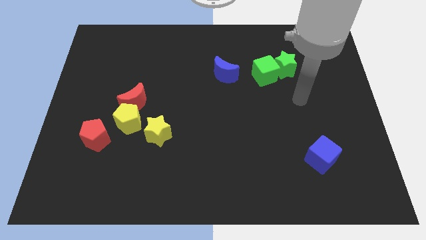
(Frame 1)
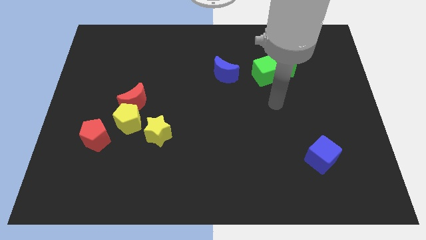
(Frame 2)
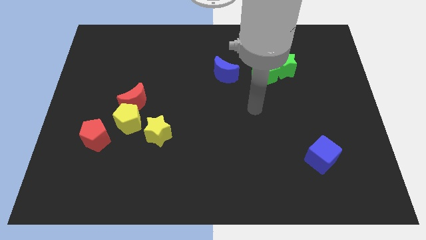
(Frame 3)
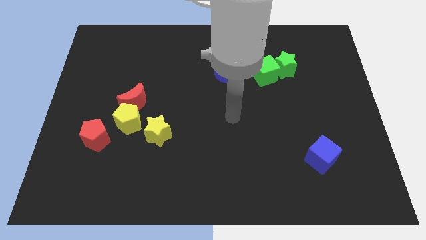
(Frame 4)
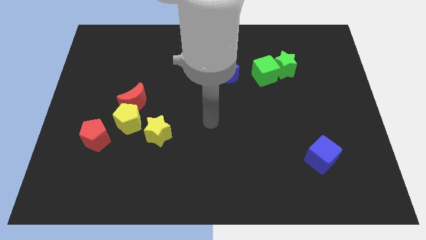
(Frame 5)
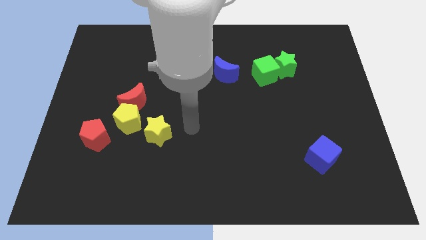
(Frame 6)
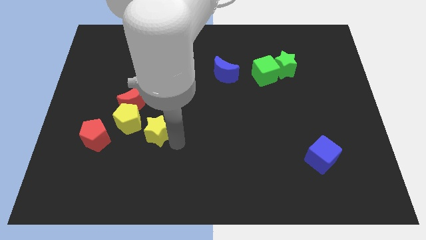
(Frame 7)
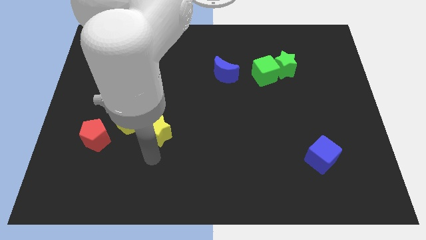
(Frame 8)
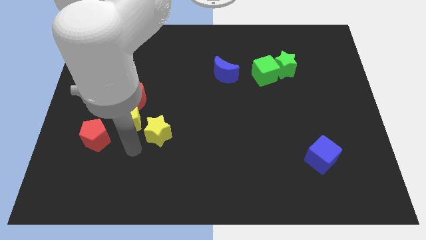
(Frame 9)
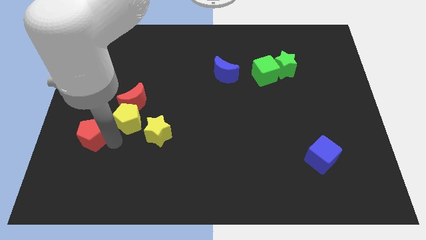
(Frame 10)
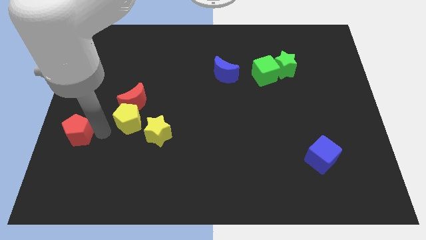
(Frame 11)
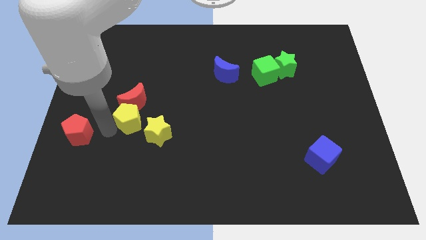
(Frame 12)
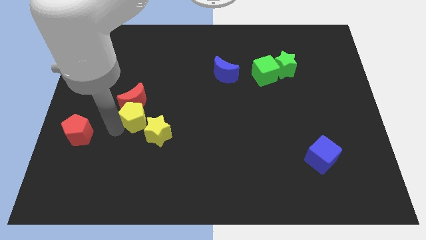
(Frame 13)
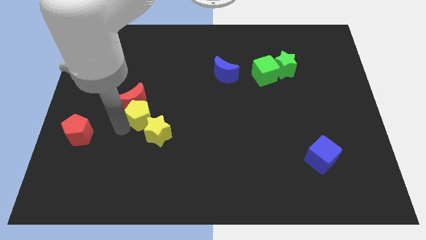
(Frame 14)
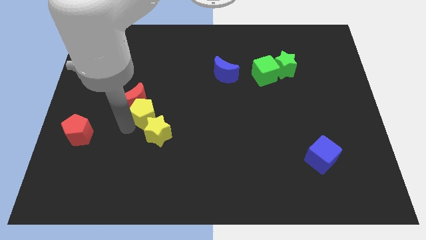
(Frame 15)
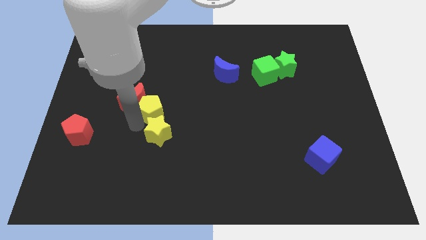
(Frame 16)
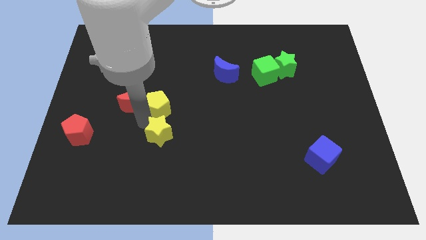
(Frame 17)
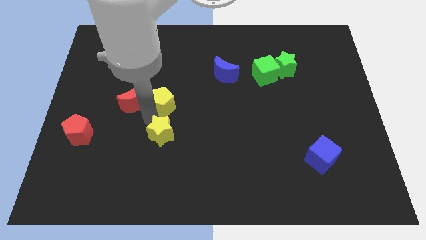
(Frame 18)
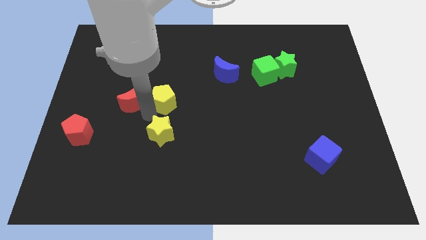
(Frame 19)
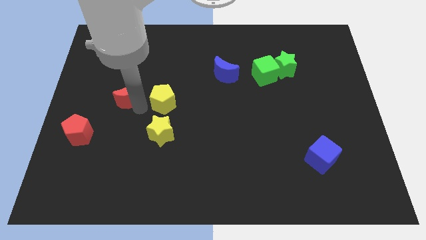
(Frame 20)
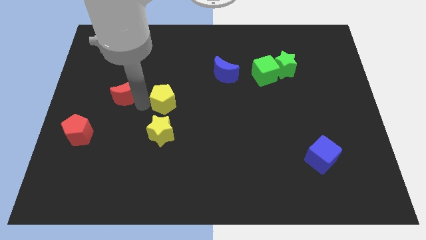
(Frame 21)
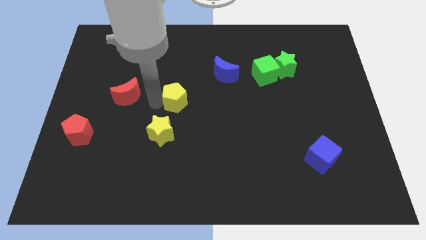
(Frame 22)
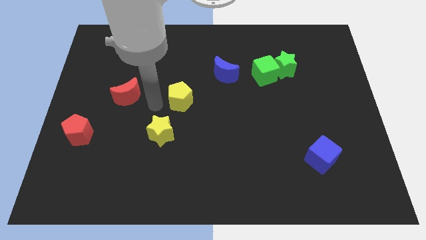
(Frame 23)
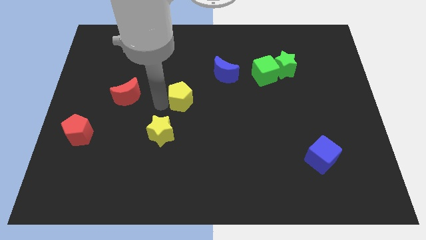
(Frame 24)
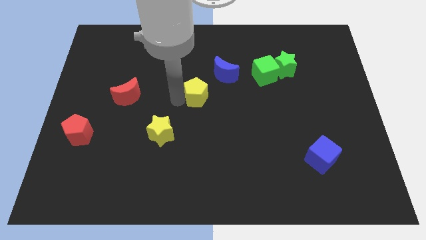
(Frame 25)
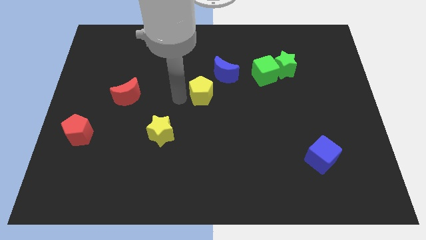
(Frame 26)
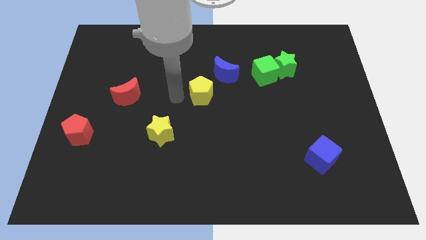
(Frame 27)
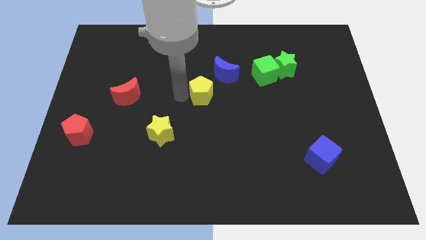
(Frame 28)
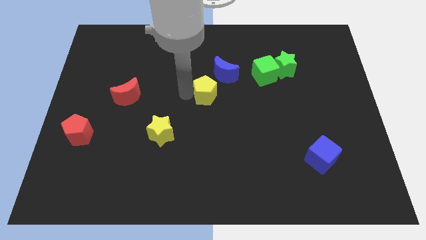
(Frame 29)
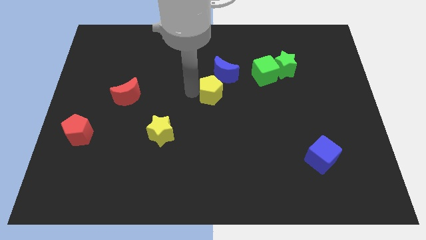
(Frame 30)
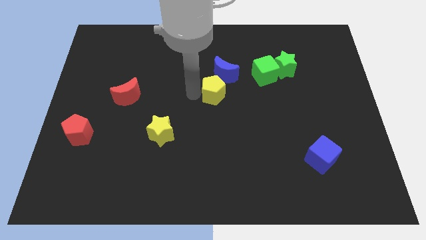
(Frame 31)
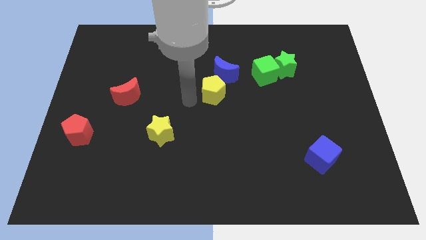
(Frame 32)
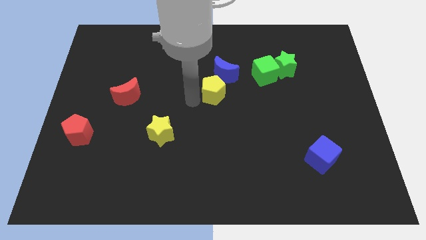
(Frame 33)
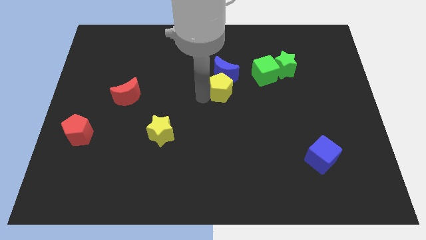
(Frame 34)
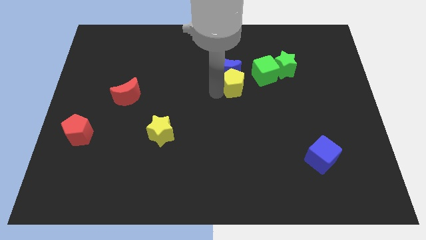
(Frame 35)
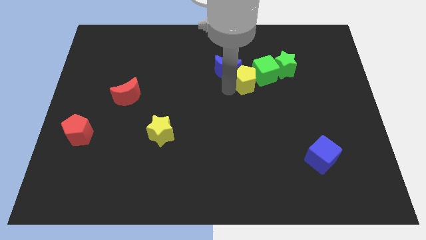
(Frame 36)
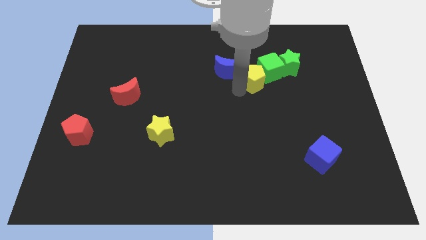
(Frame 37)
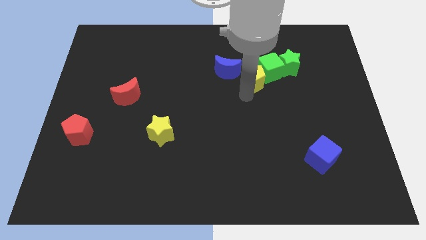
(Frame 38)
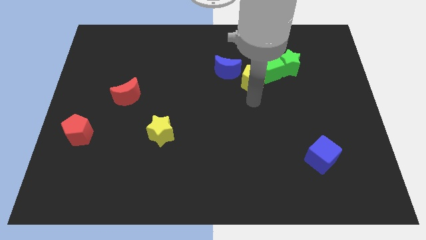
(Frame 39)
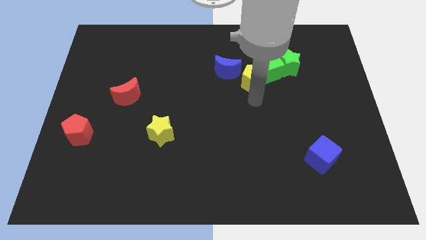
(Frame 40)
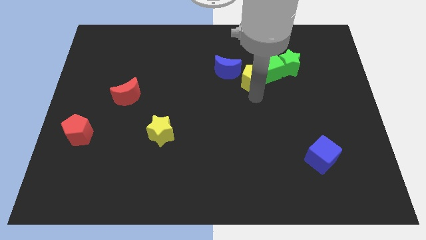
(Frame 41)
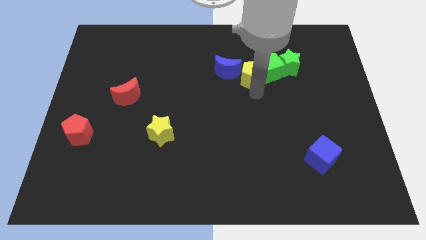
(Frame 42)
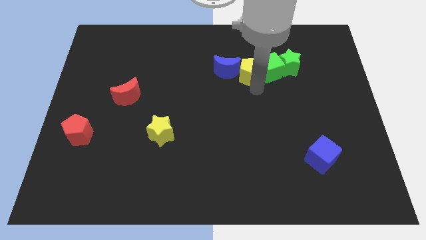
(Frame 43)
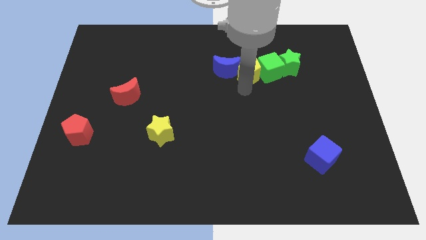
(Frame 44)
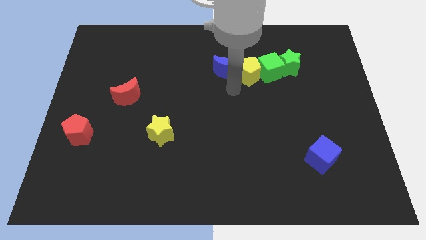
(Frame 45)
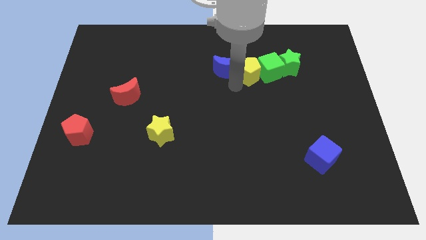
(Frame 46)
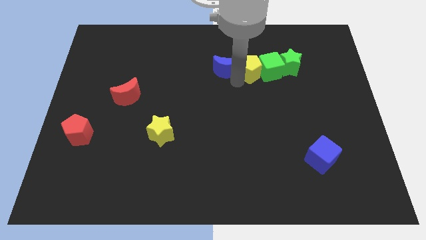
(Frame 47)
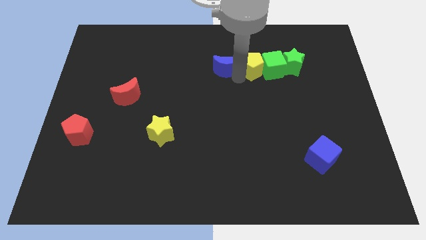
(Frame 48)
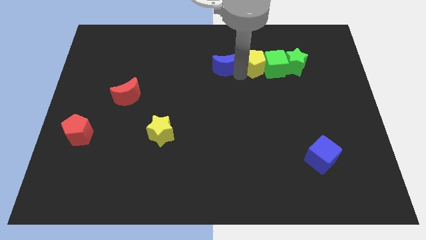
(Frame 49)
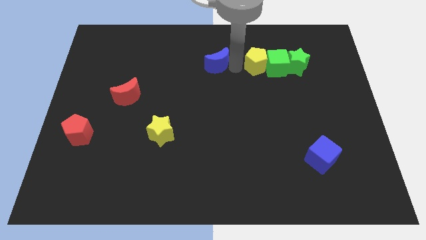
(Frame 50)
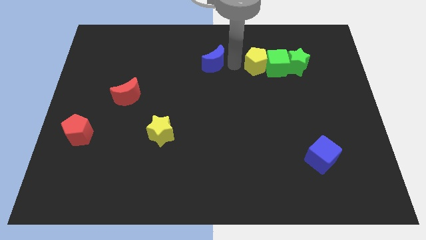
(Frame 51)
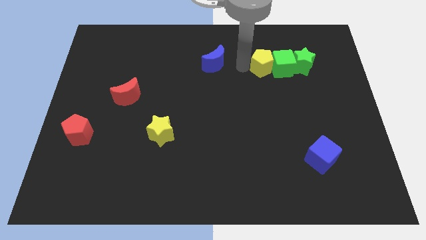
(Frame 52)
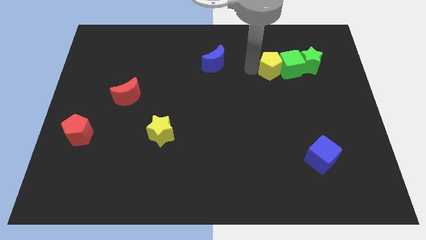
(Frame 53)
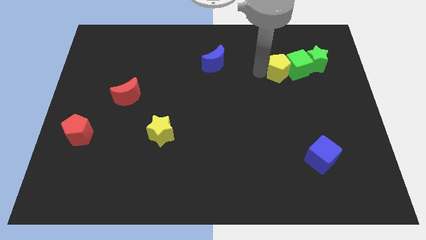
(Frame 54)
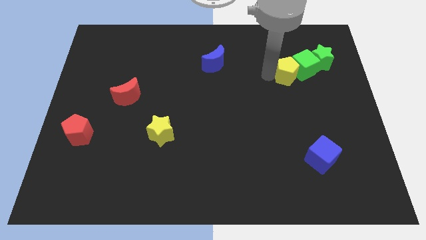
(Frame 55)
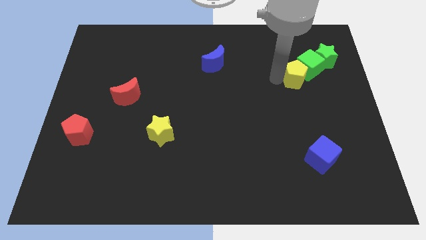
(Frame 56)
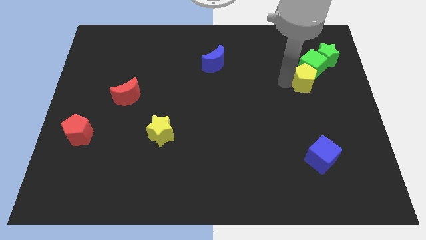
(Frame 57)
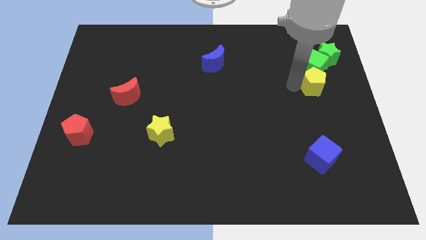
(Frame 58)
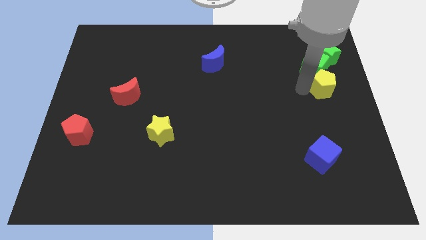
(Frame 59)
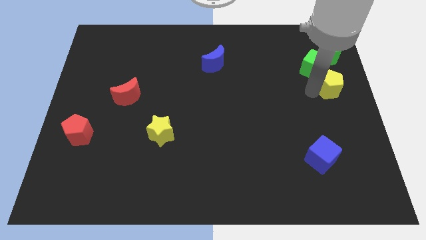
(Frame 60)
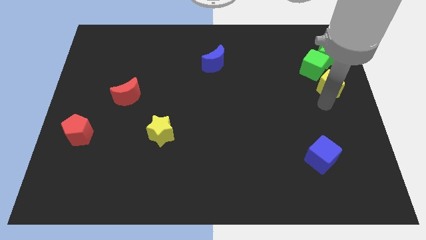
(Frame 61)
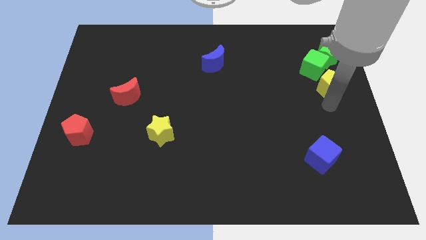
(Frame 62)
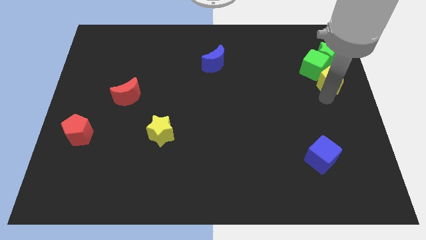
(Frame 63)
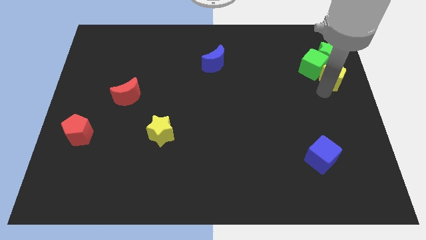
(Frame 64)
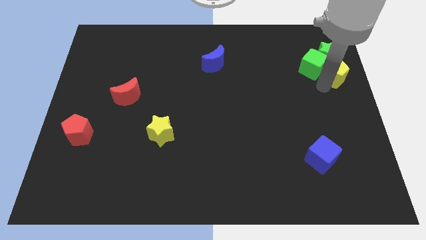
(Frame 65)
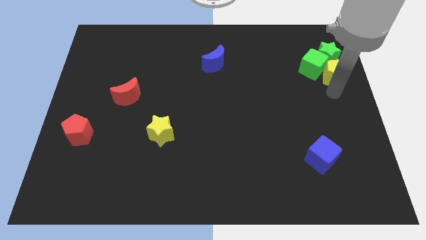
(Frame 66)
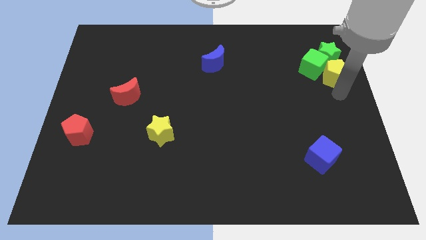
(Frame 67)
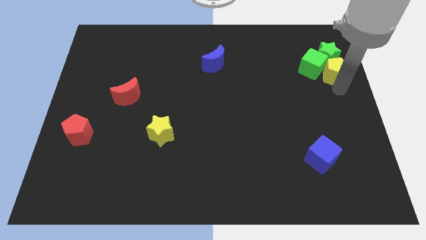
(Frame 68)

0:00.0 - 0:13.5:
slide the yellow pentagon towards the green star
